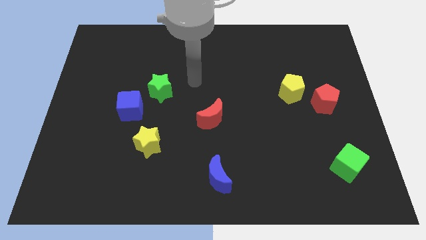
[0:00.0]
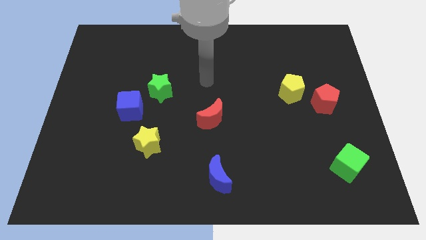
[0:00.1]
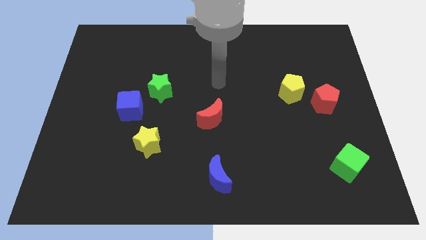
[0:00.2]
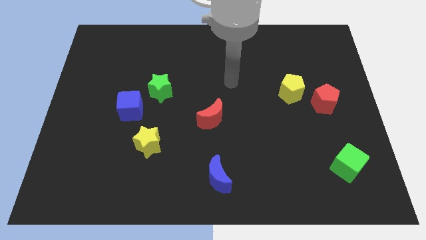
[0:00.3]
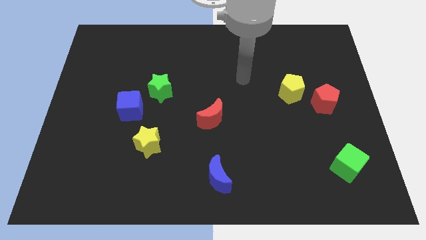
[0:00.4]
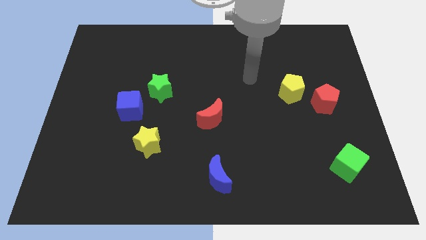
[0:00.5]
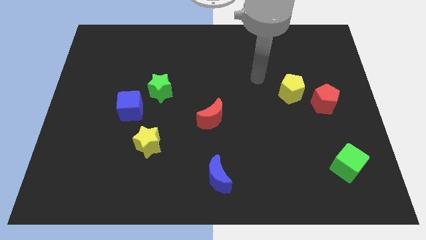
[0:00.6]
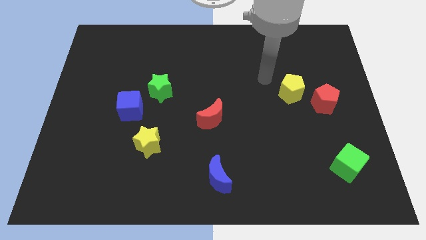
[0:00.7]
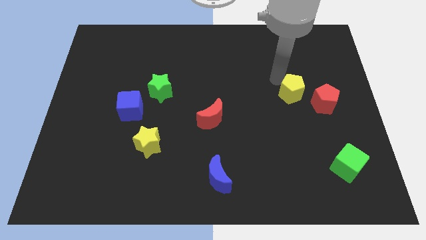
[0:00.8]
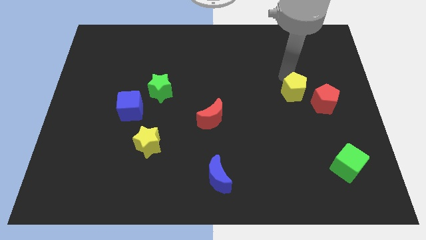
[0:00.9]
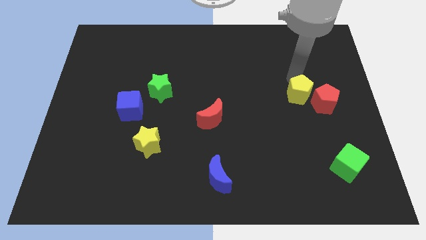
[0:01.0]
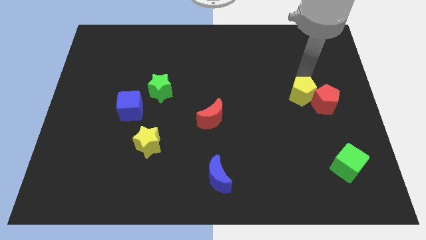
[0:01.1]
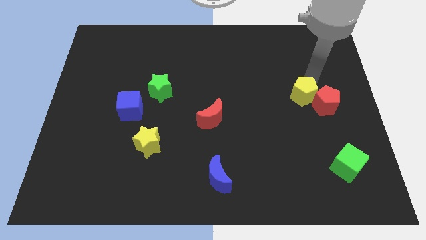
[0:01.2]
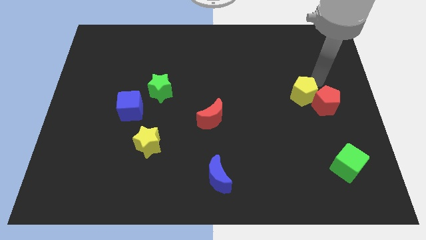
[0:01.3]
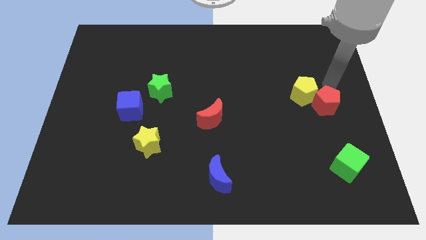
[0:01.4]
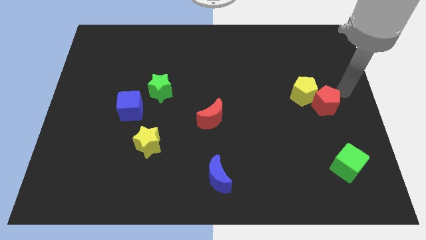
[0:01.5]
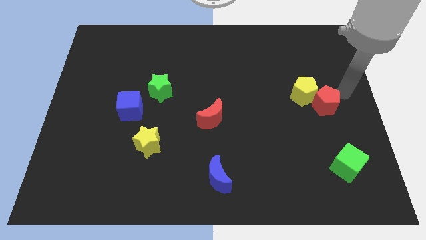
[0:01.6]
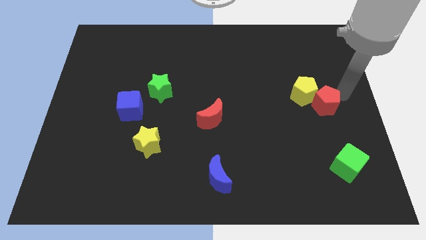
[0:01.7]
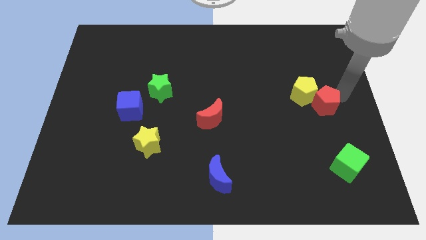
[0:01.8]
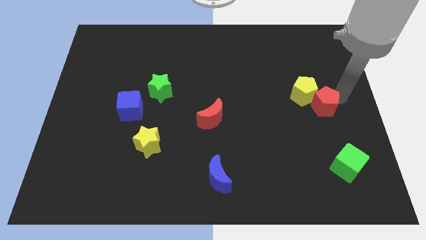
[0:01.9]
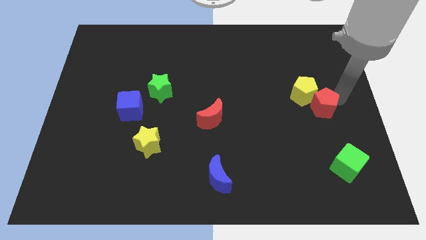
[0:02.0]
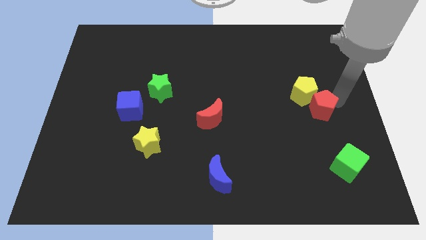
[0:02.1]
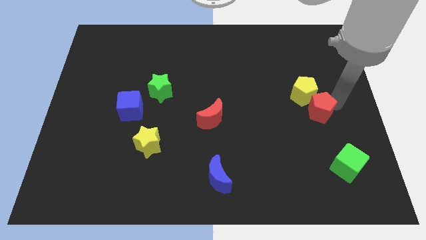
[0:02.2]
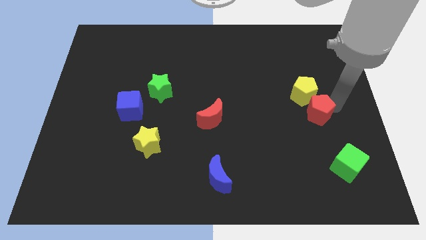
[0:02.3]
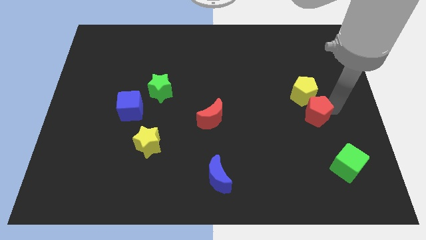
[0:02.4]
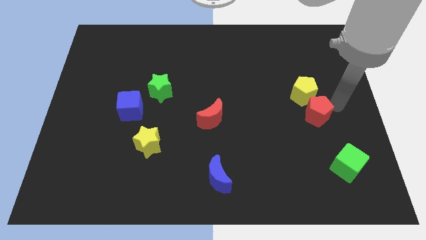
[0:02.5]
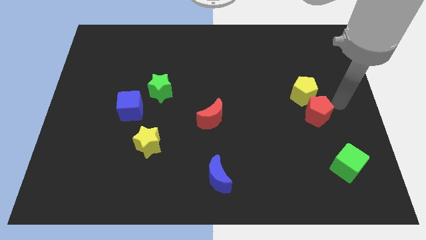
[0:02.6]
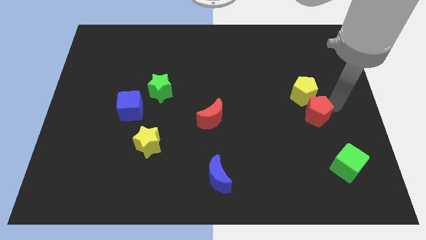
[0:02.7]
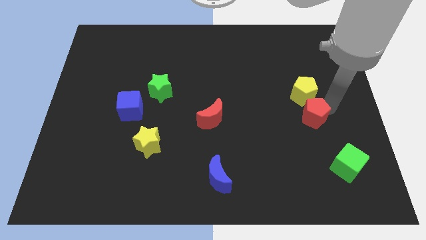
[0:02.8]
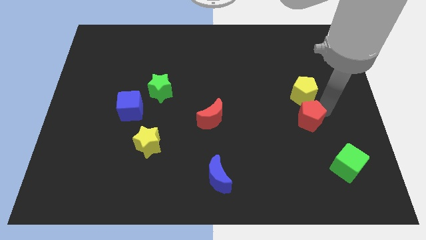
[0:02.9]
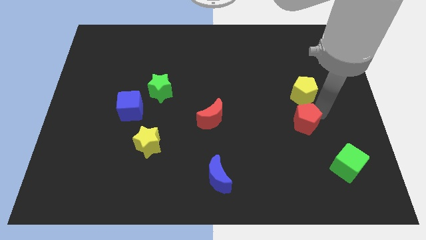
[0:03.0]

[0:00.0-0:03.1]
push the red pentagon slightly diagonally down and left

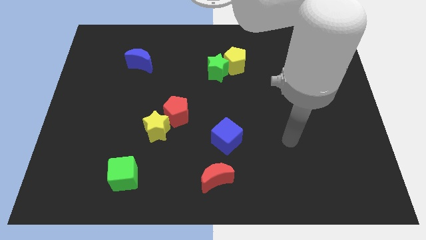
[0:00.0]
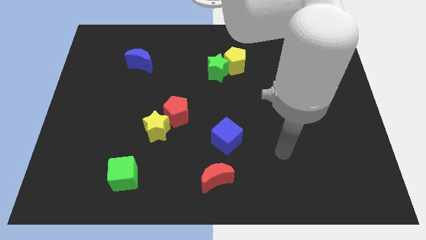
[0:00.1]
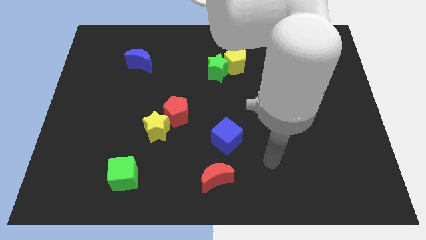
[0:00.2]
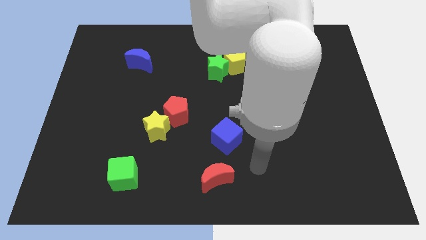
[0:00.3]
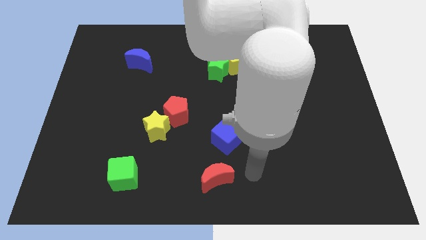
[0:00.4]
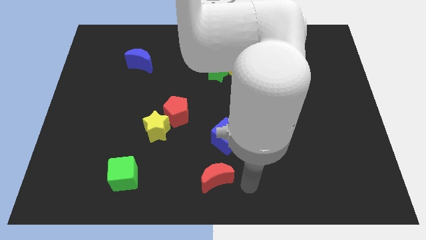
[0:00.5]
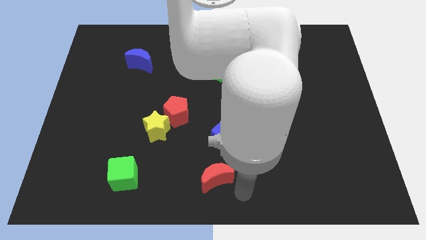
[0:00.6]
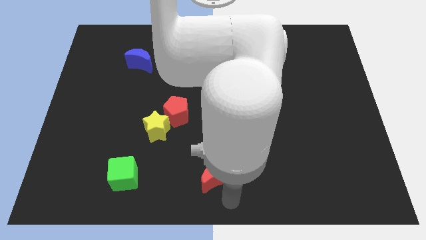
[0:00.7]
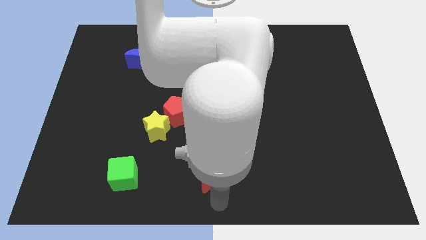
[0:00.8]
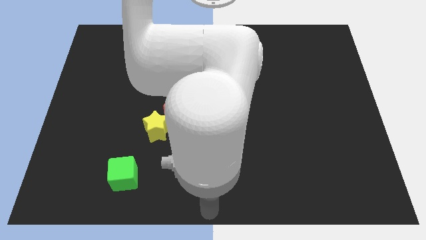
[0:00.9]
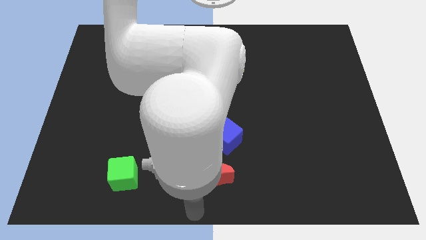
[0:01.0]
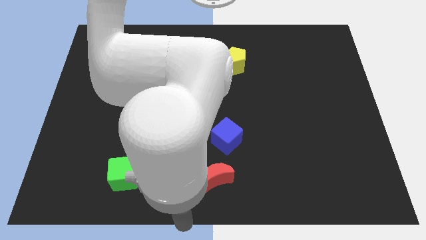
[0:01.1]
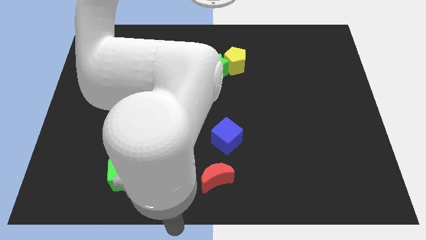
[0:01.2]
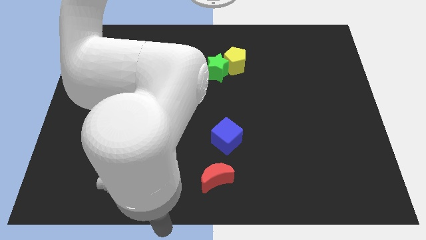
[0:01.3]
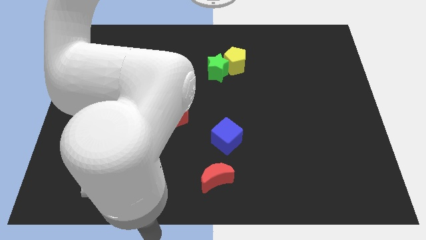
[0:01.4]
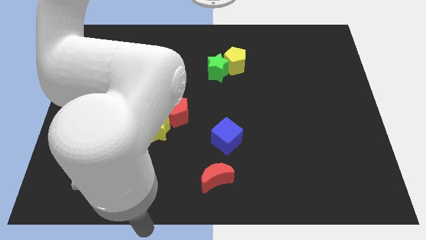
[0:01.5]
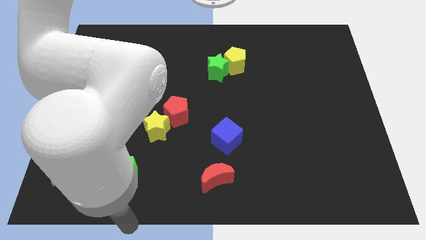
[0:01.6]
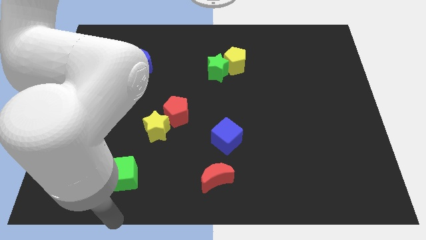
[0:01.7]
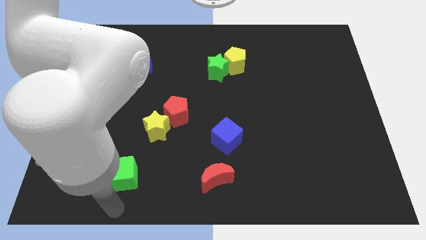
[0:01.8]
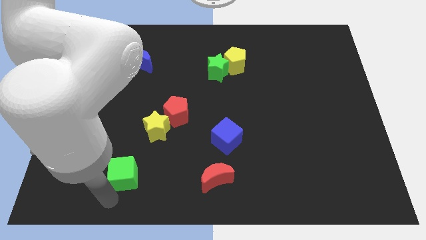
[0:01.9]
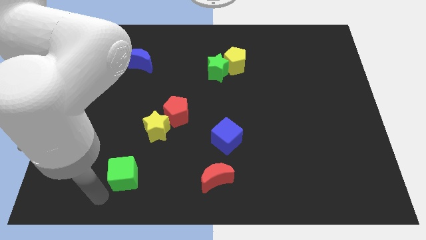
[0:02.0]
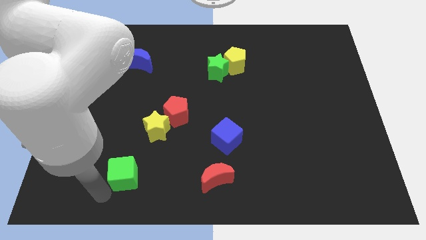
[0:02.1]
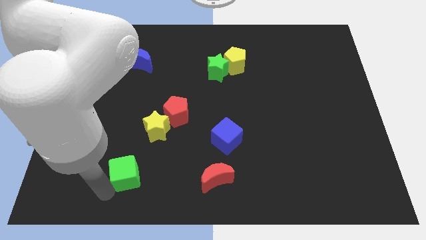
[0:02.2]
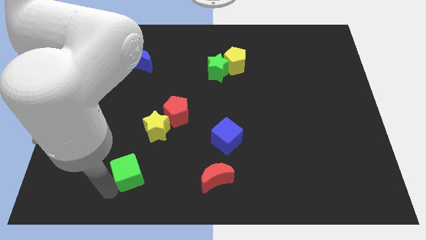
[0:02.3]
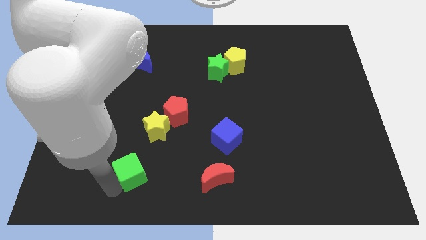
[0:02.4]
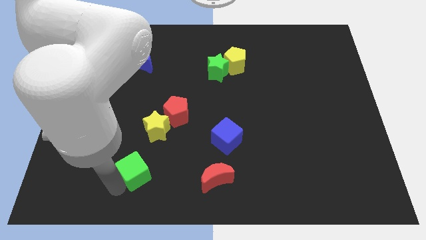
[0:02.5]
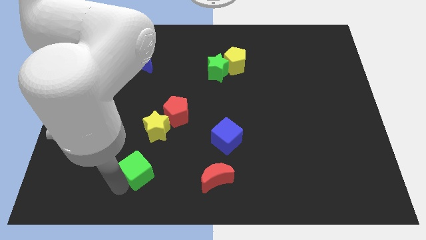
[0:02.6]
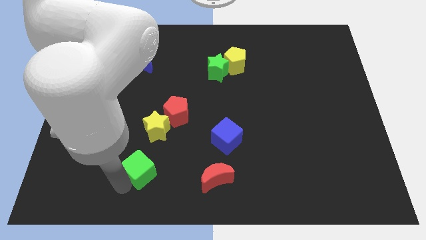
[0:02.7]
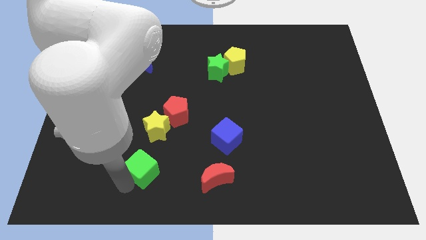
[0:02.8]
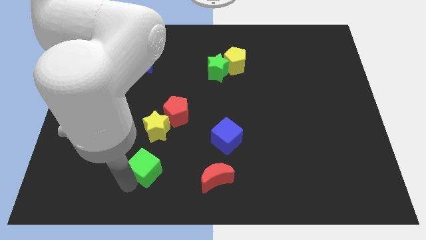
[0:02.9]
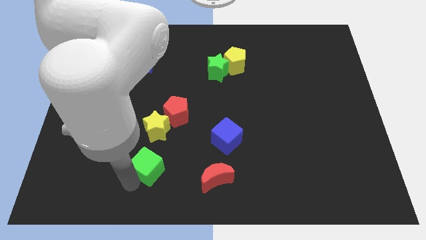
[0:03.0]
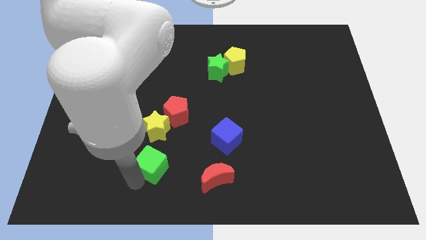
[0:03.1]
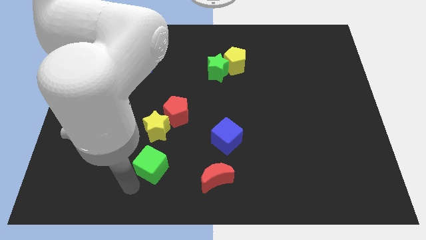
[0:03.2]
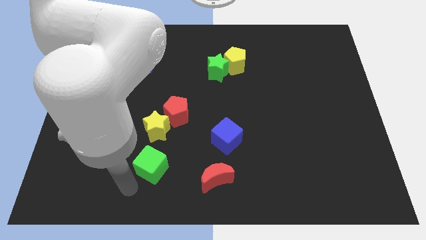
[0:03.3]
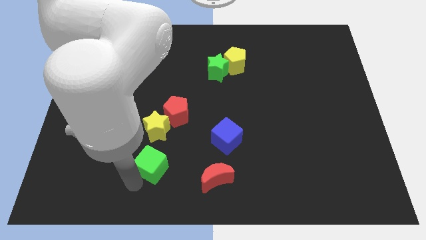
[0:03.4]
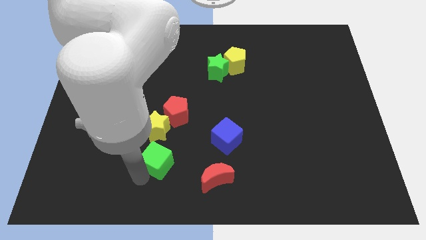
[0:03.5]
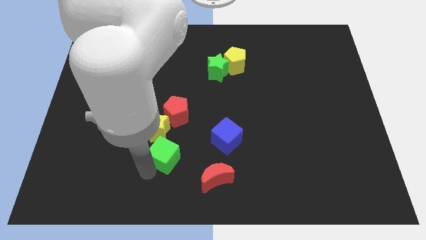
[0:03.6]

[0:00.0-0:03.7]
slightly push the green cube diagonally up and right

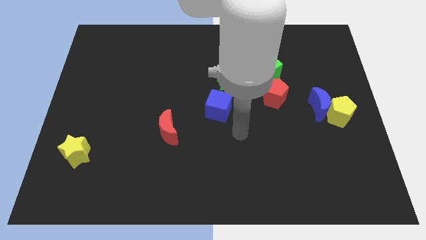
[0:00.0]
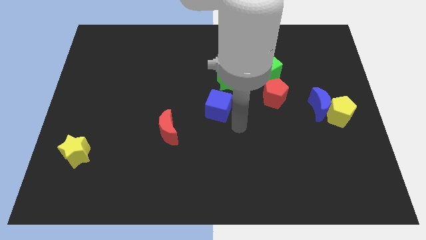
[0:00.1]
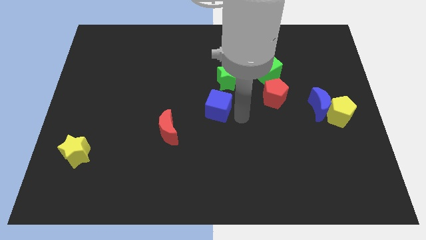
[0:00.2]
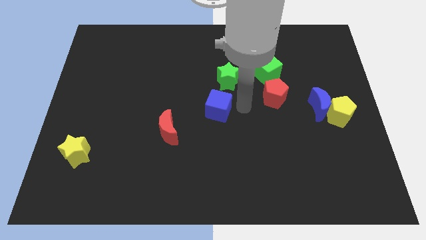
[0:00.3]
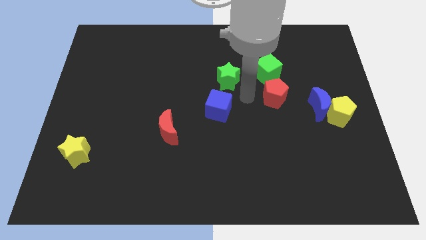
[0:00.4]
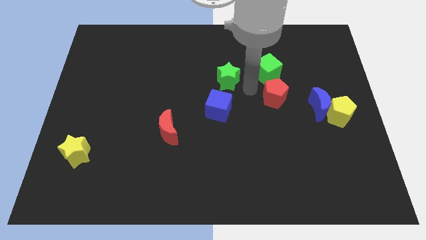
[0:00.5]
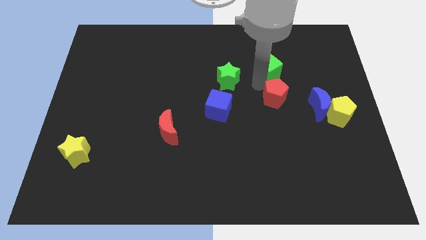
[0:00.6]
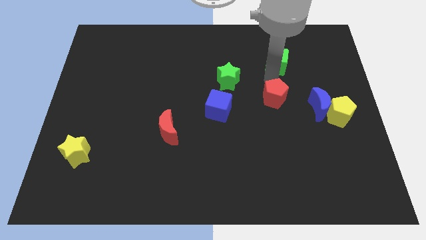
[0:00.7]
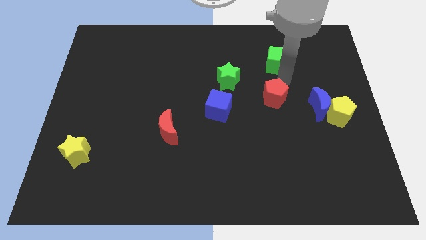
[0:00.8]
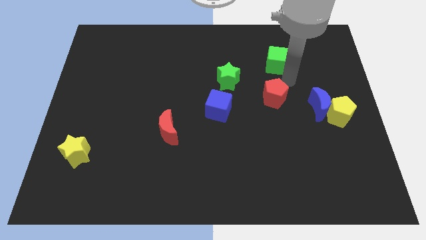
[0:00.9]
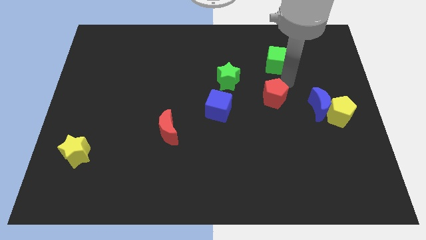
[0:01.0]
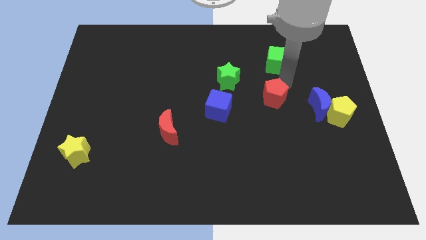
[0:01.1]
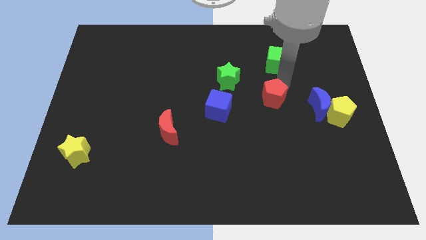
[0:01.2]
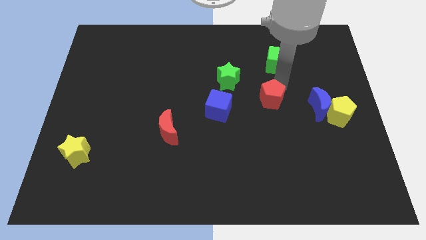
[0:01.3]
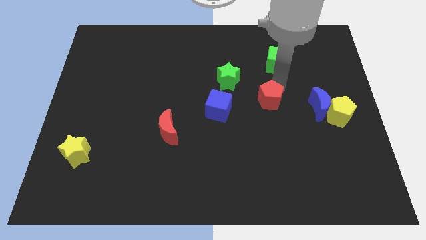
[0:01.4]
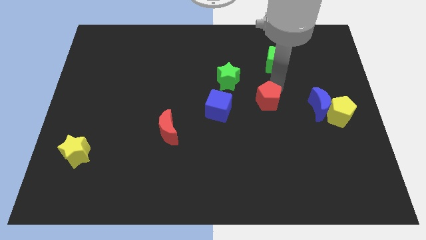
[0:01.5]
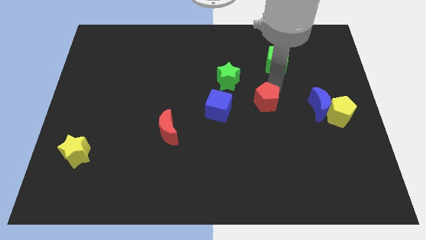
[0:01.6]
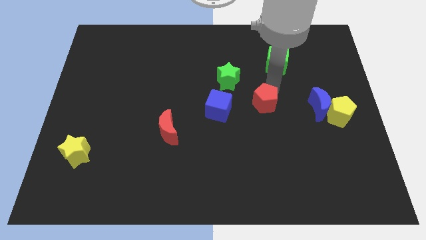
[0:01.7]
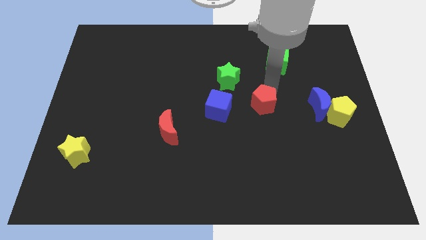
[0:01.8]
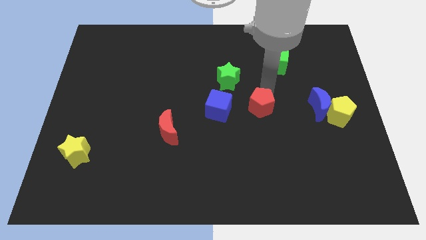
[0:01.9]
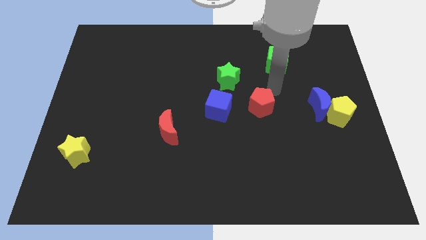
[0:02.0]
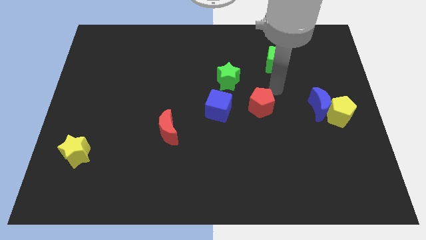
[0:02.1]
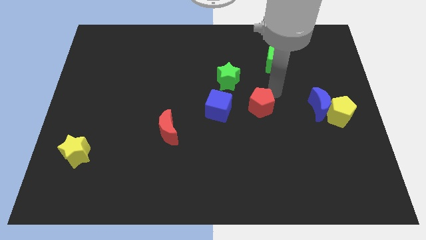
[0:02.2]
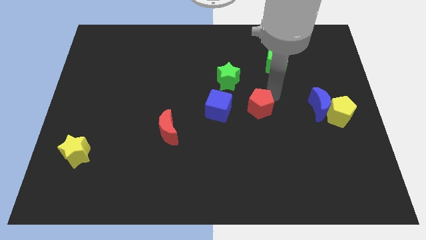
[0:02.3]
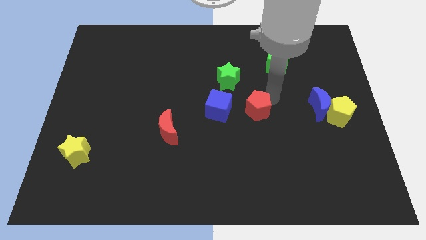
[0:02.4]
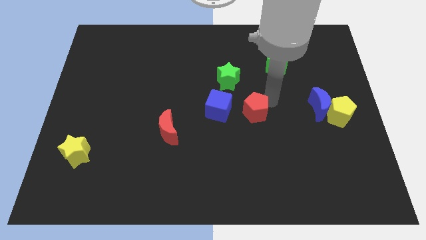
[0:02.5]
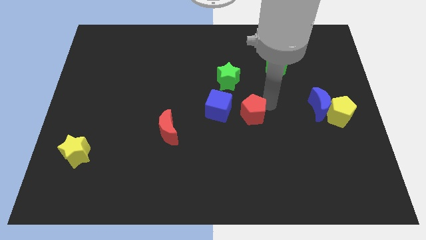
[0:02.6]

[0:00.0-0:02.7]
move the red pentagon down and to the left slightly
